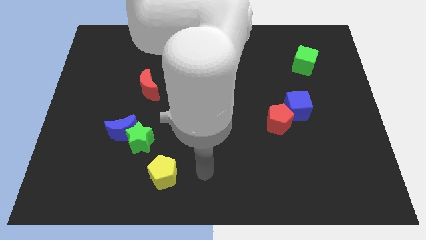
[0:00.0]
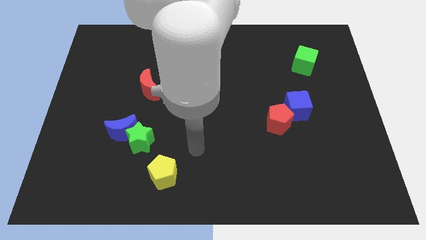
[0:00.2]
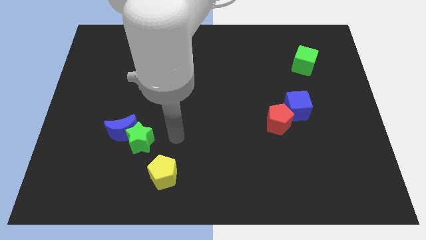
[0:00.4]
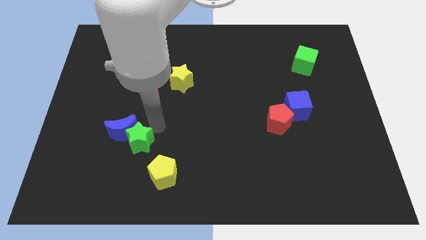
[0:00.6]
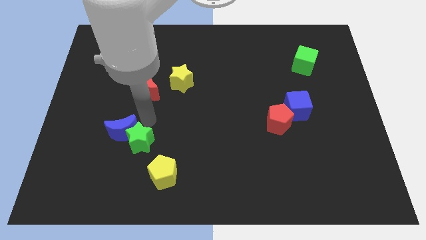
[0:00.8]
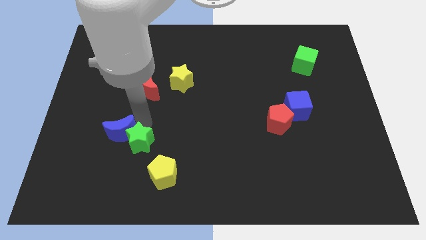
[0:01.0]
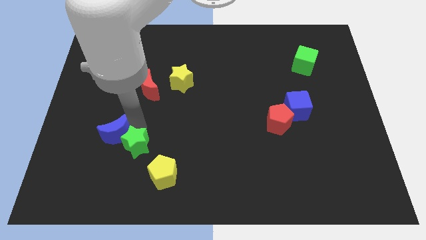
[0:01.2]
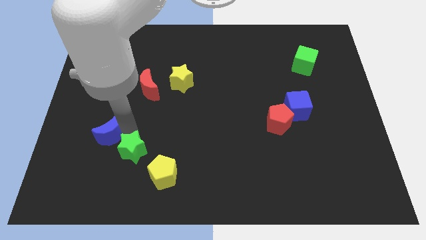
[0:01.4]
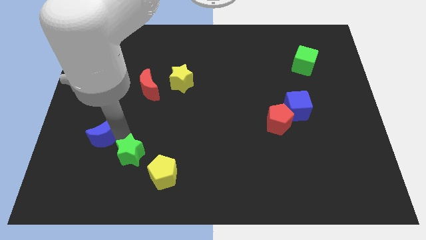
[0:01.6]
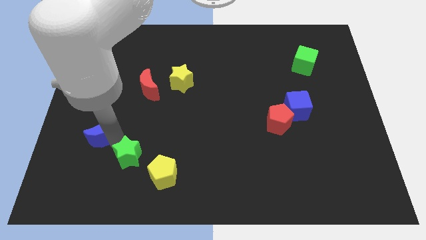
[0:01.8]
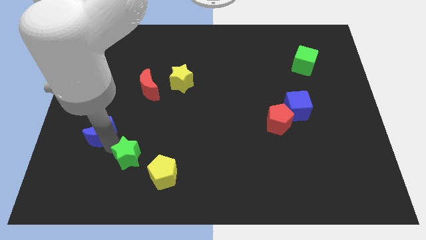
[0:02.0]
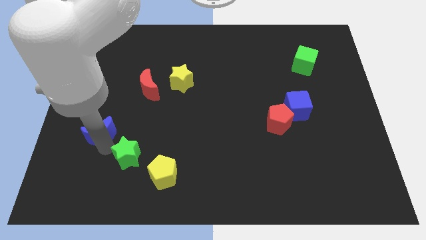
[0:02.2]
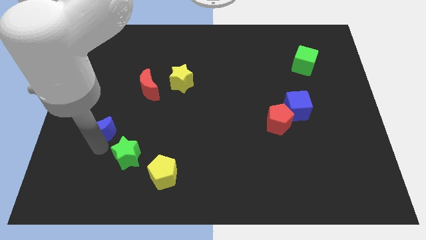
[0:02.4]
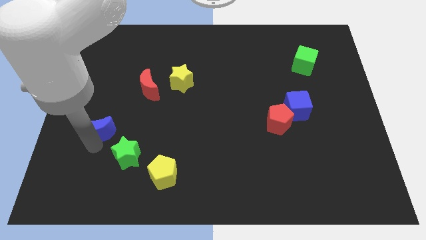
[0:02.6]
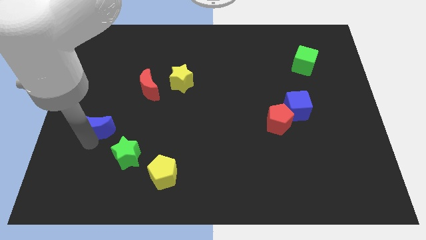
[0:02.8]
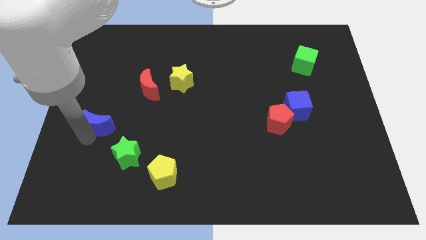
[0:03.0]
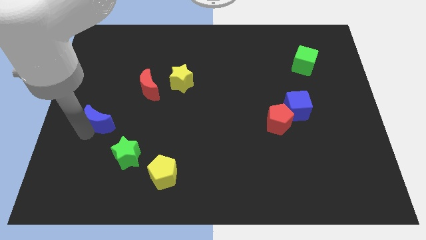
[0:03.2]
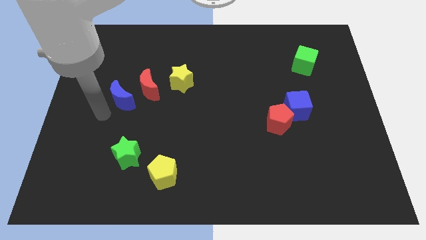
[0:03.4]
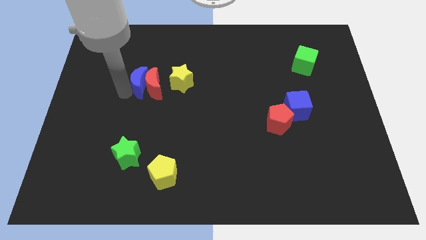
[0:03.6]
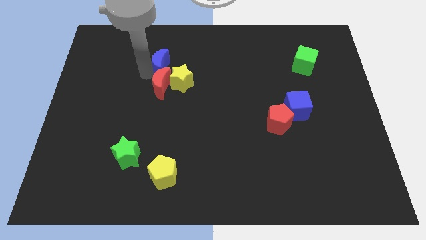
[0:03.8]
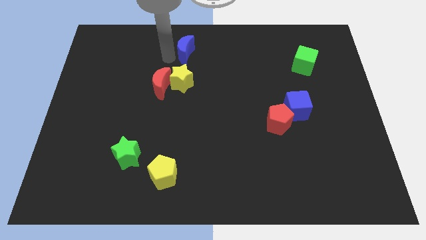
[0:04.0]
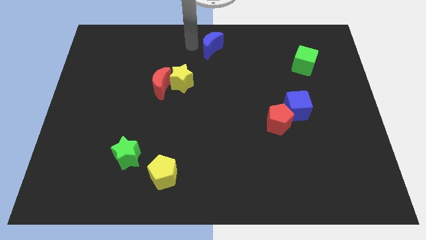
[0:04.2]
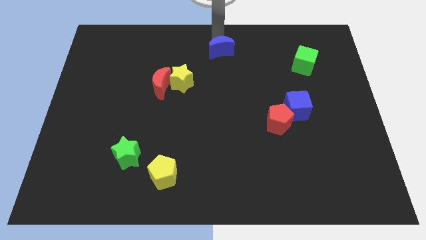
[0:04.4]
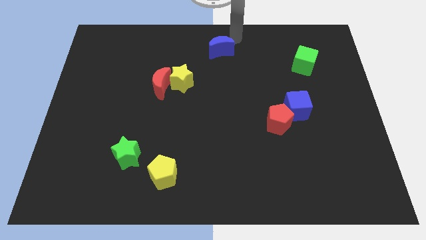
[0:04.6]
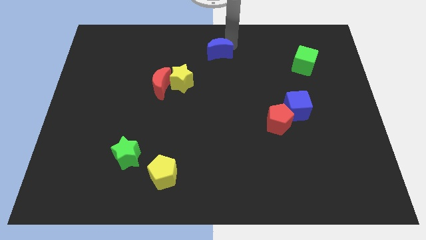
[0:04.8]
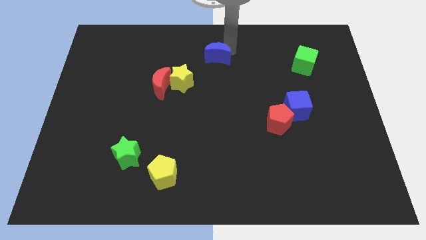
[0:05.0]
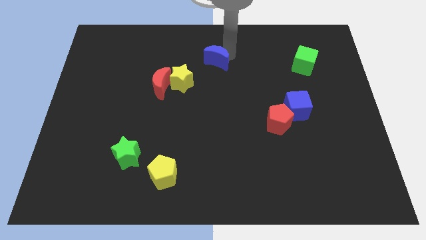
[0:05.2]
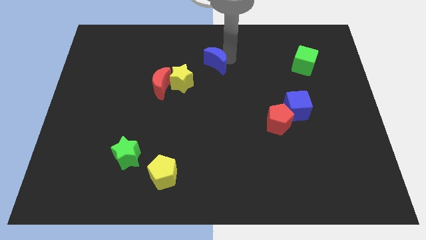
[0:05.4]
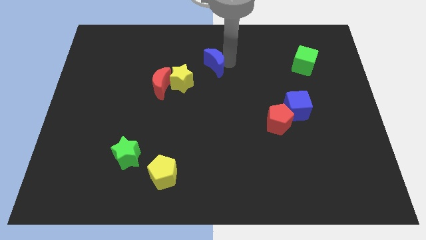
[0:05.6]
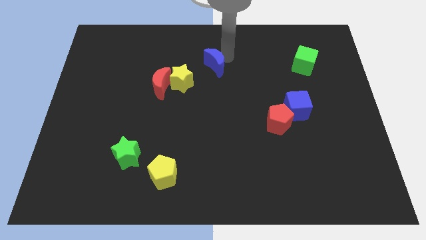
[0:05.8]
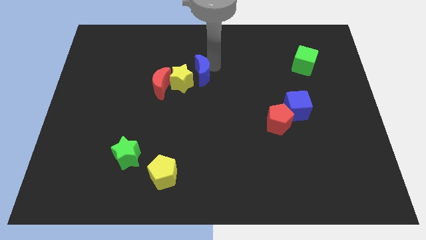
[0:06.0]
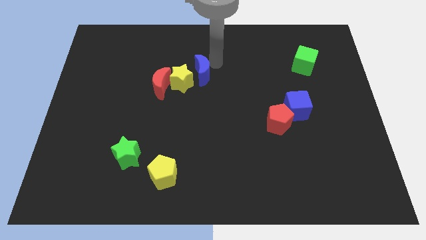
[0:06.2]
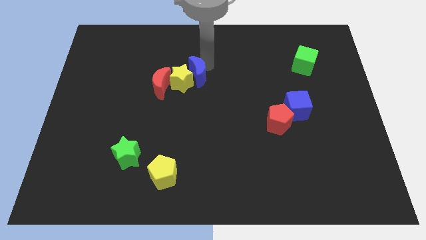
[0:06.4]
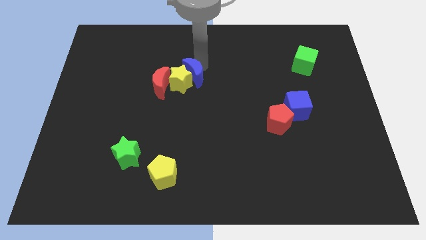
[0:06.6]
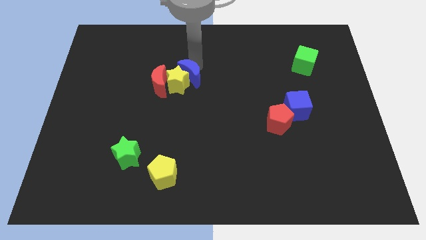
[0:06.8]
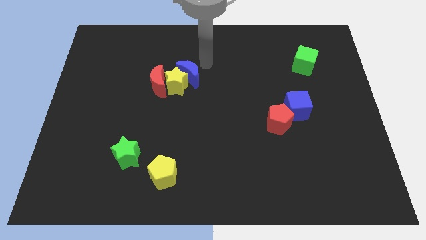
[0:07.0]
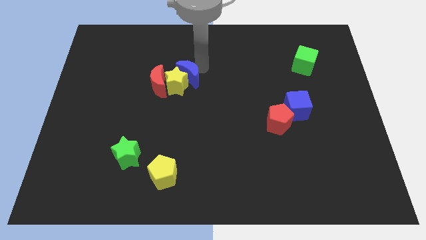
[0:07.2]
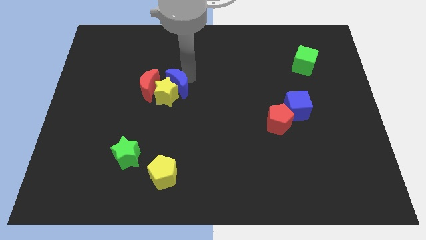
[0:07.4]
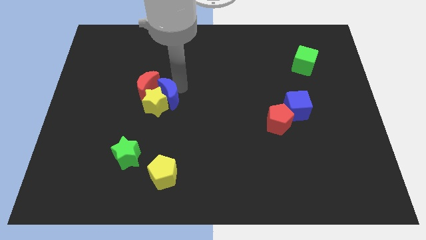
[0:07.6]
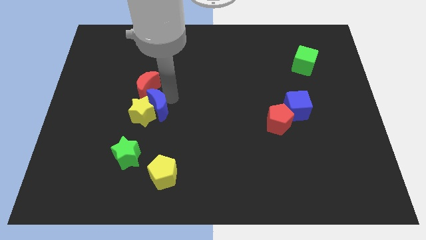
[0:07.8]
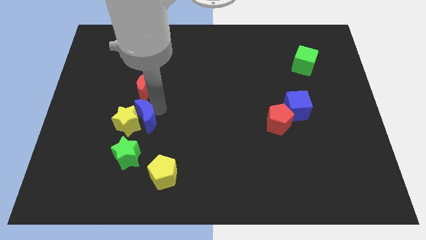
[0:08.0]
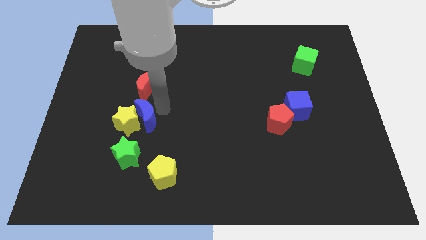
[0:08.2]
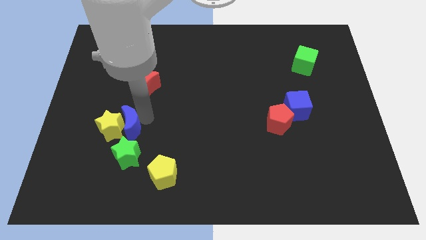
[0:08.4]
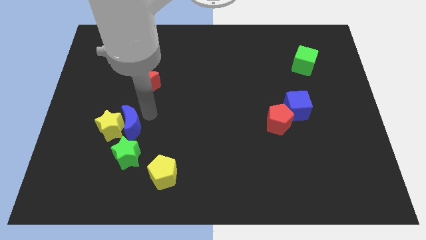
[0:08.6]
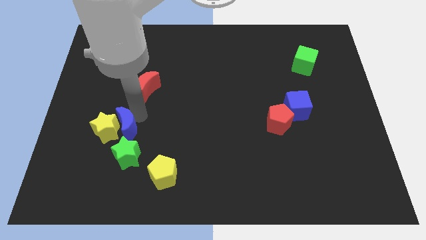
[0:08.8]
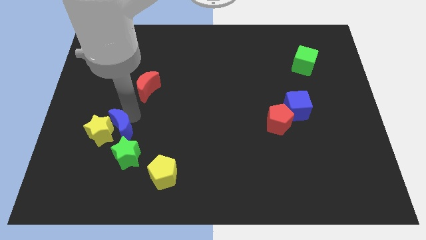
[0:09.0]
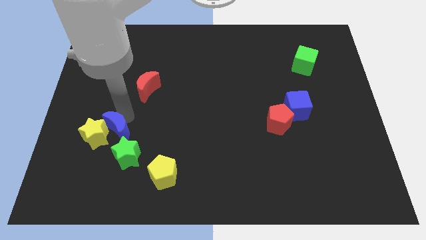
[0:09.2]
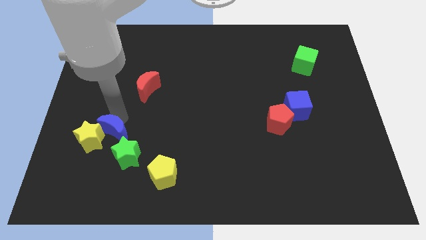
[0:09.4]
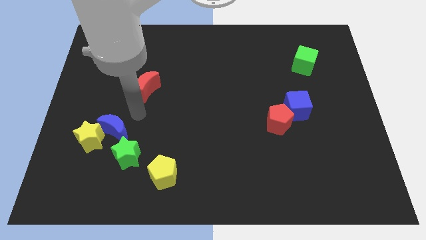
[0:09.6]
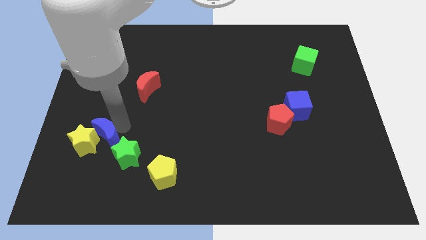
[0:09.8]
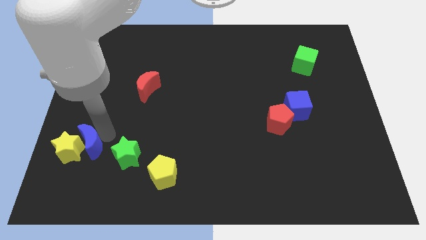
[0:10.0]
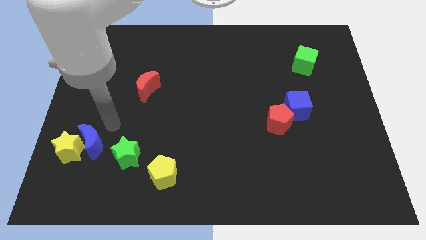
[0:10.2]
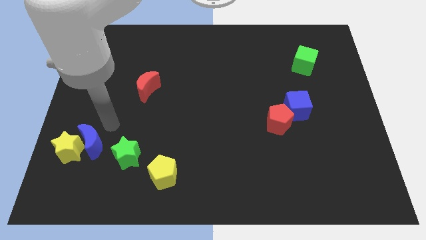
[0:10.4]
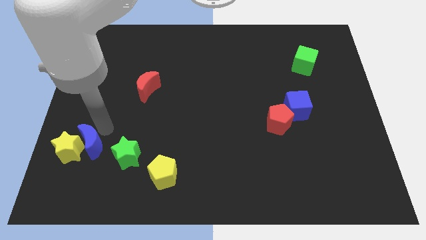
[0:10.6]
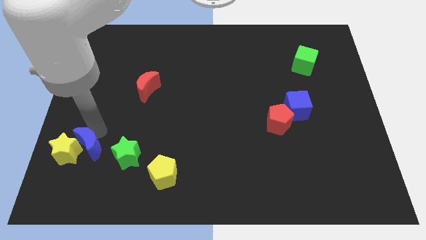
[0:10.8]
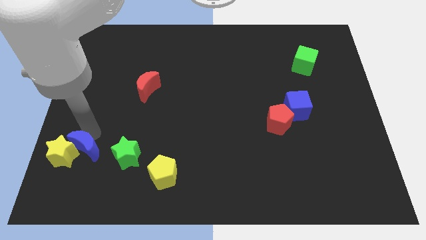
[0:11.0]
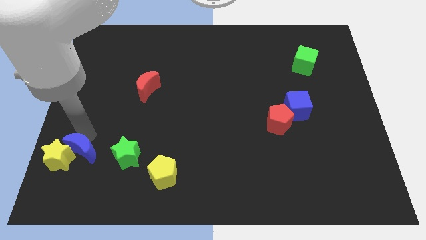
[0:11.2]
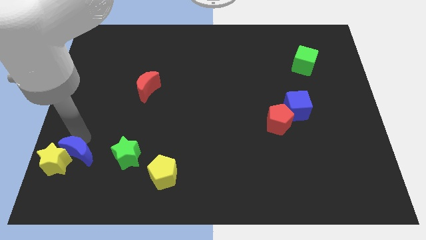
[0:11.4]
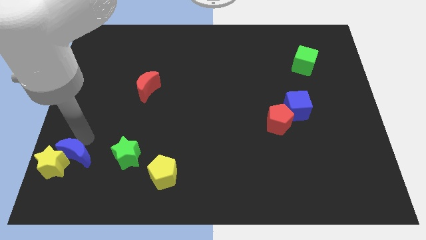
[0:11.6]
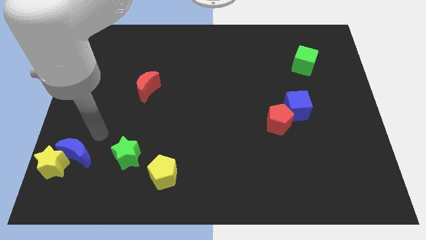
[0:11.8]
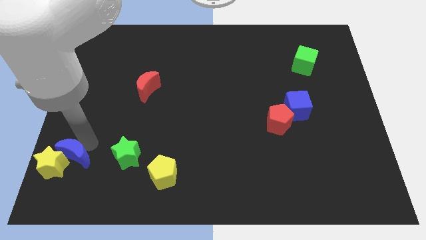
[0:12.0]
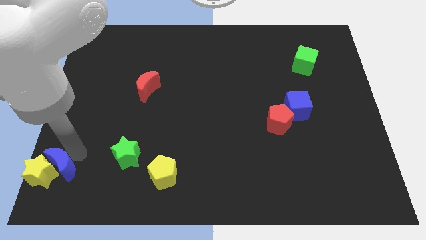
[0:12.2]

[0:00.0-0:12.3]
slide the blue moon to the bottom left

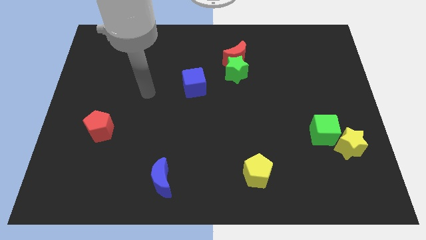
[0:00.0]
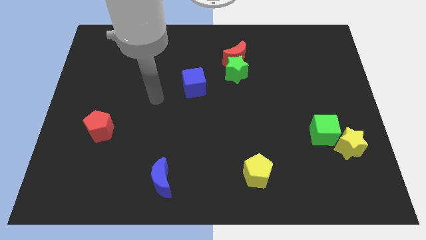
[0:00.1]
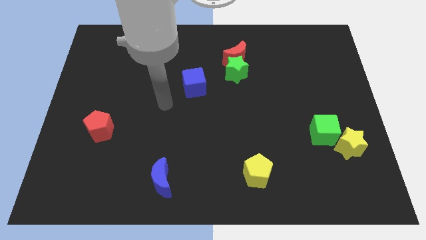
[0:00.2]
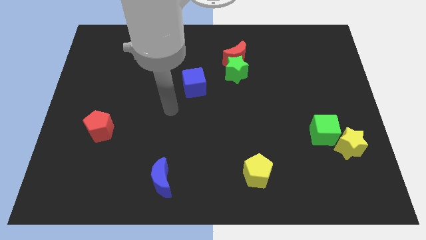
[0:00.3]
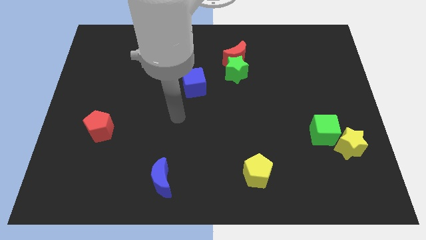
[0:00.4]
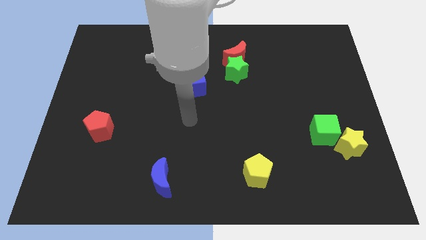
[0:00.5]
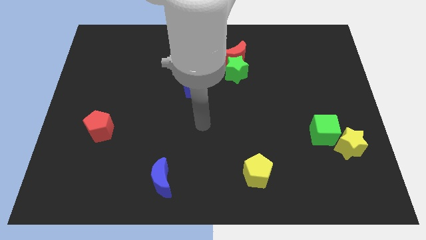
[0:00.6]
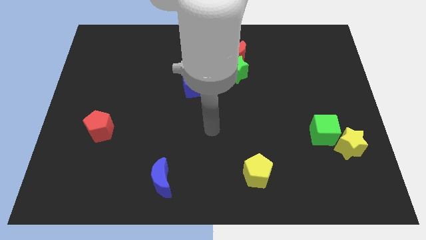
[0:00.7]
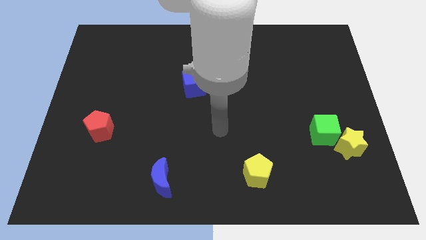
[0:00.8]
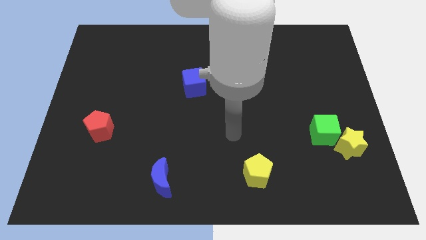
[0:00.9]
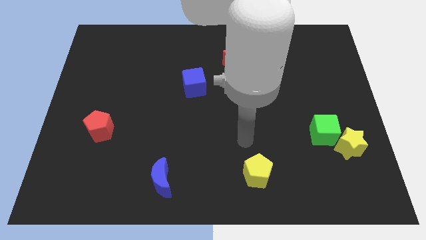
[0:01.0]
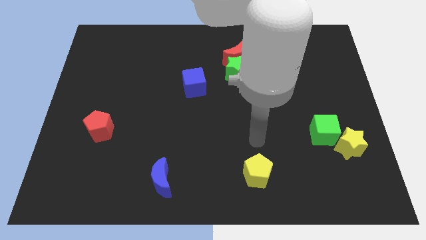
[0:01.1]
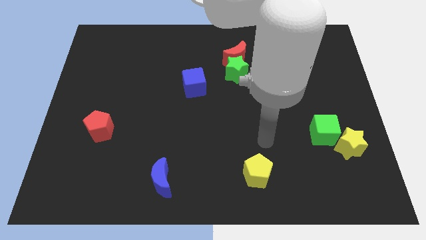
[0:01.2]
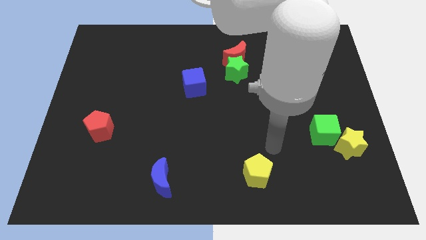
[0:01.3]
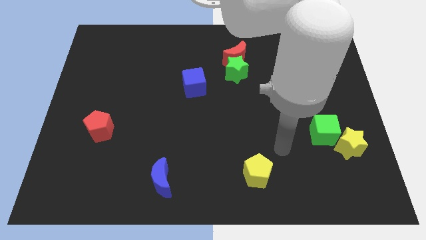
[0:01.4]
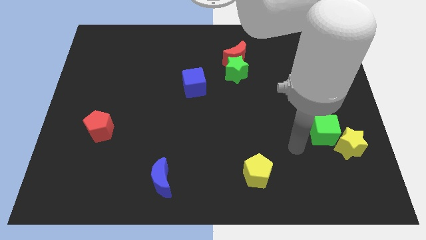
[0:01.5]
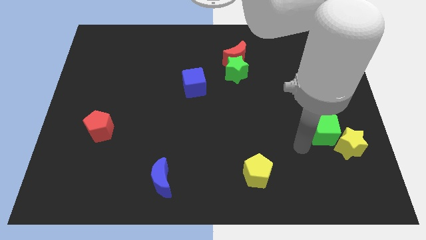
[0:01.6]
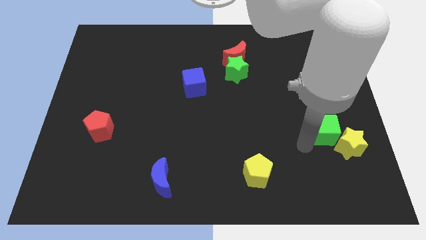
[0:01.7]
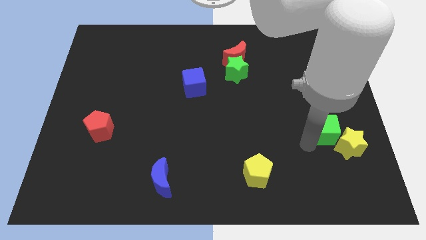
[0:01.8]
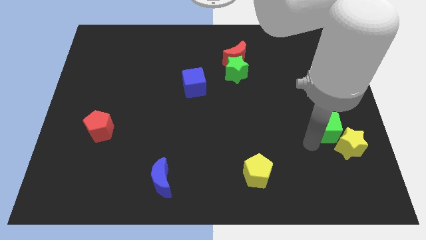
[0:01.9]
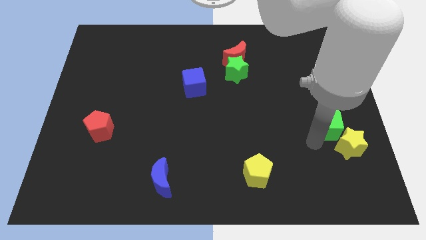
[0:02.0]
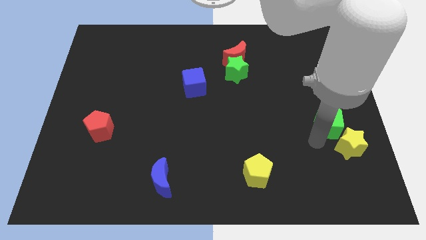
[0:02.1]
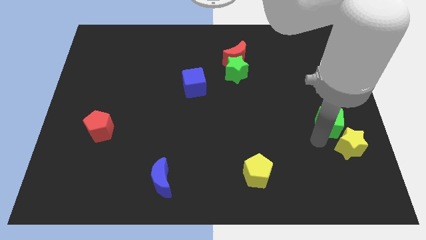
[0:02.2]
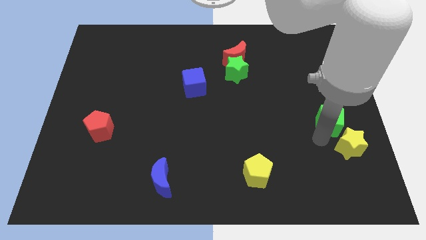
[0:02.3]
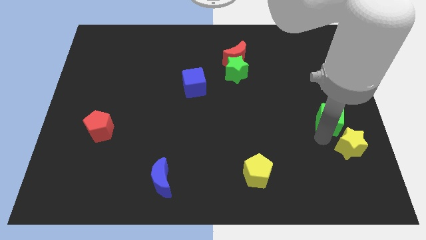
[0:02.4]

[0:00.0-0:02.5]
slide the green cube to the center right
